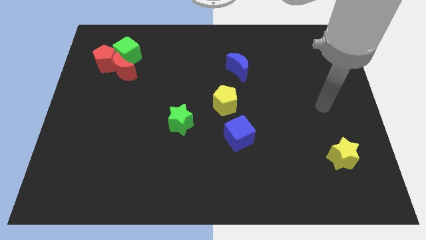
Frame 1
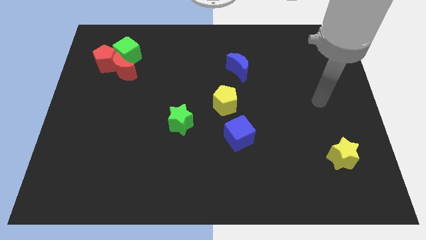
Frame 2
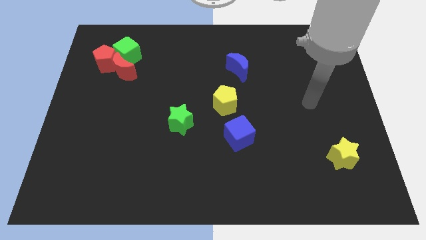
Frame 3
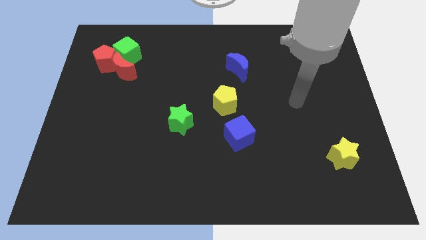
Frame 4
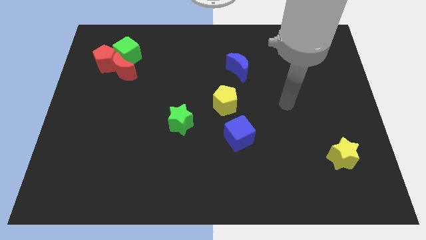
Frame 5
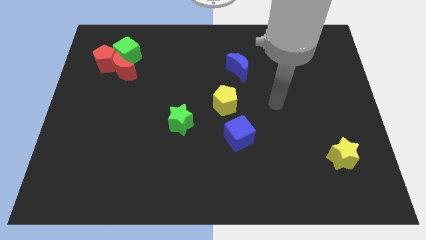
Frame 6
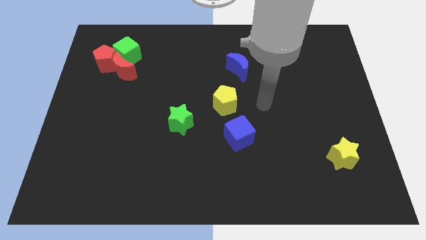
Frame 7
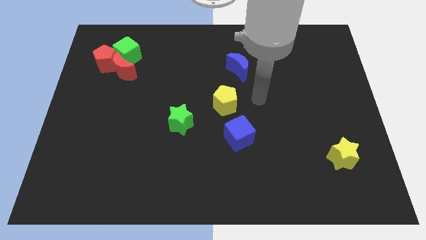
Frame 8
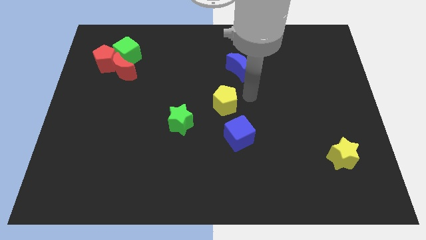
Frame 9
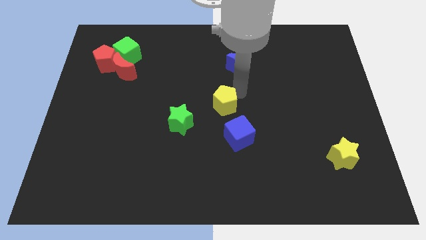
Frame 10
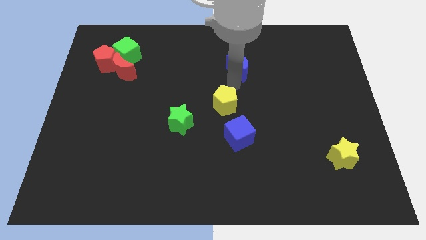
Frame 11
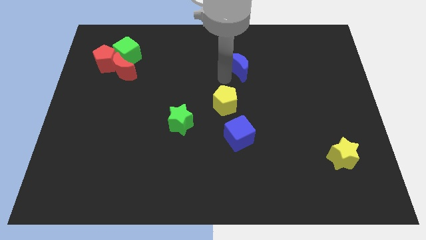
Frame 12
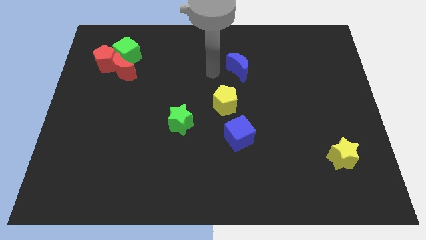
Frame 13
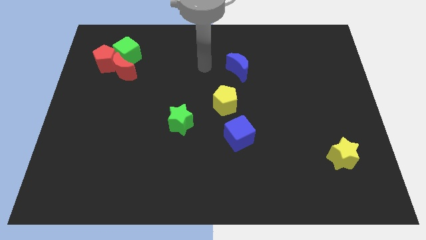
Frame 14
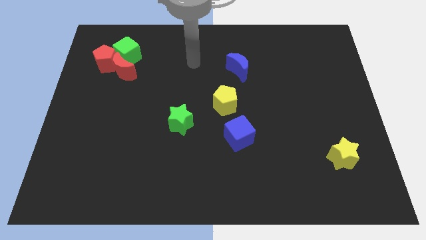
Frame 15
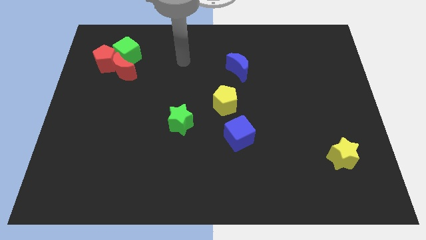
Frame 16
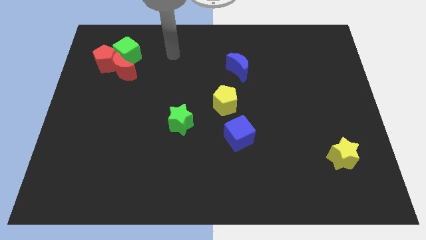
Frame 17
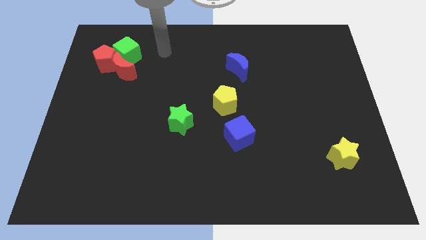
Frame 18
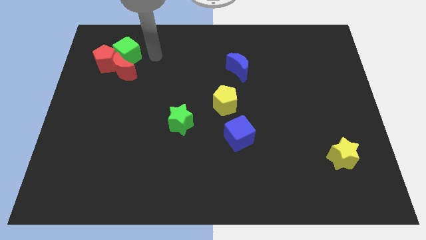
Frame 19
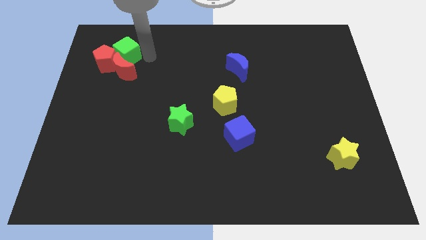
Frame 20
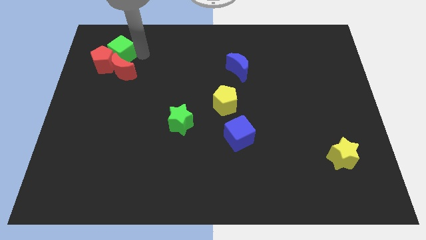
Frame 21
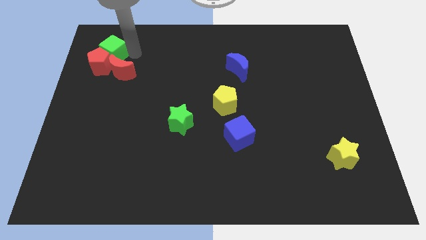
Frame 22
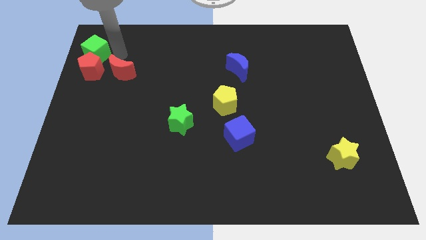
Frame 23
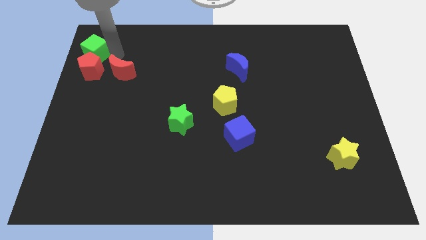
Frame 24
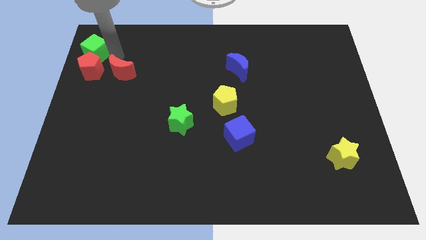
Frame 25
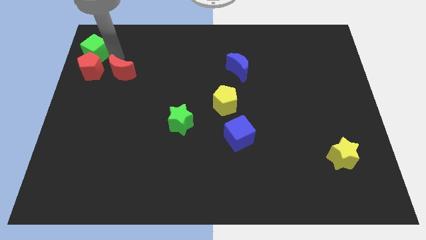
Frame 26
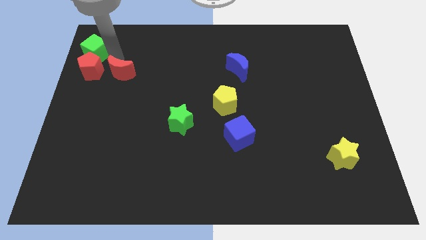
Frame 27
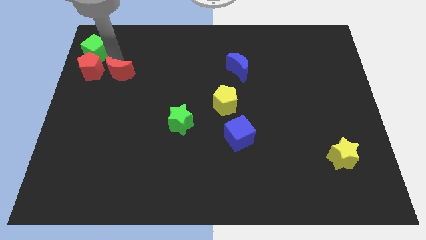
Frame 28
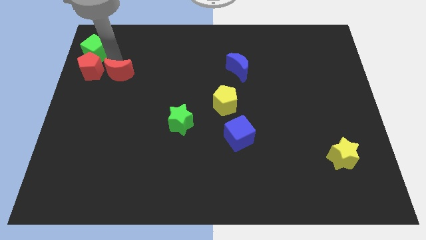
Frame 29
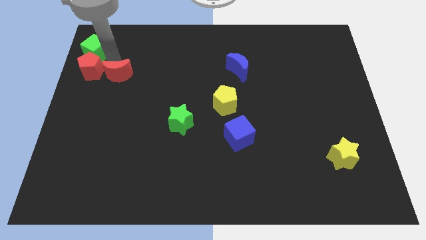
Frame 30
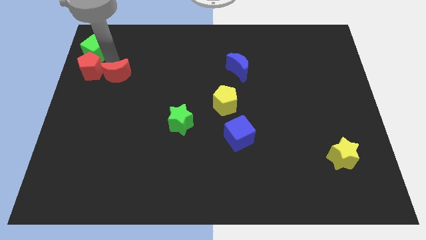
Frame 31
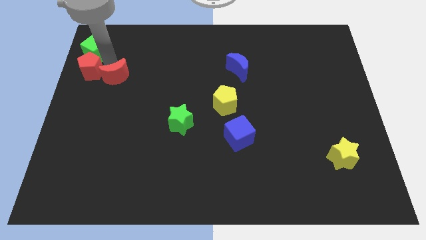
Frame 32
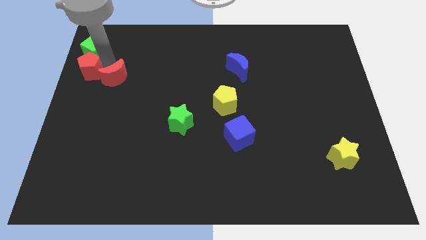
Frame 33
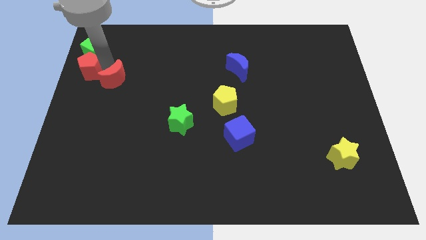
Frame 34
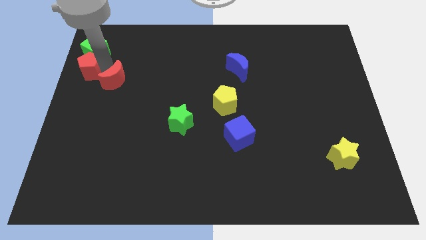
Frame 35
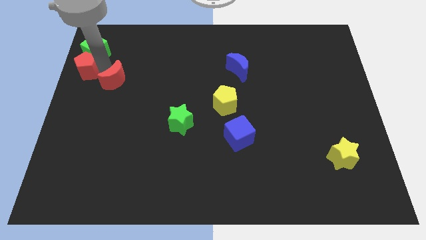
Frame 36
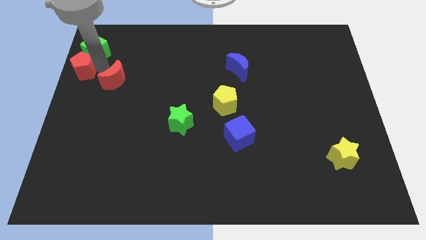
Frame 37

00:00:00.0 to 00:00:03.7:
pull the red moon apart from the red pentagon and green cube

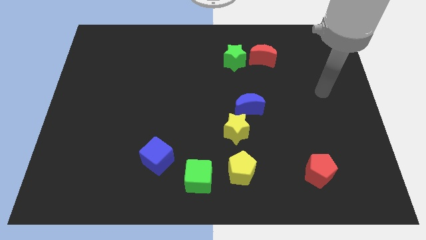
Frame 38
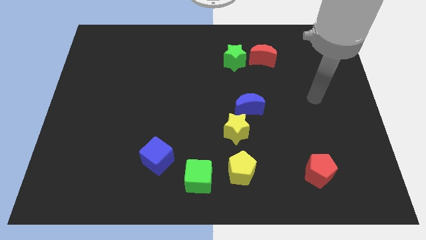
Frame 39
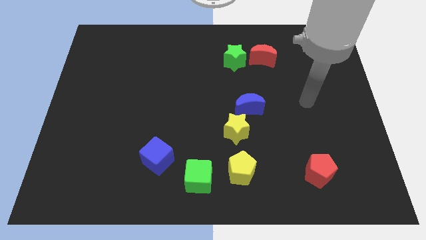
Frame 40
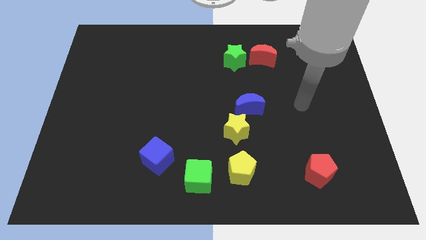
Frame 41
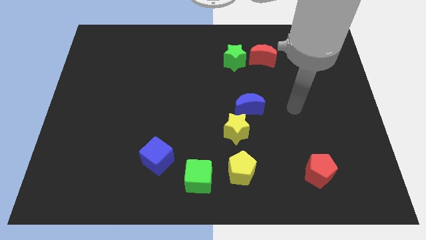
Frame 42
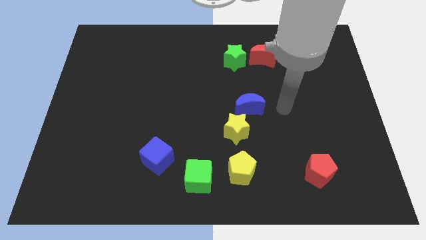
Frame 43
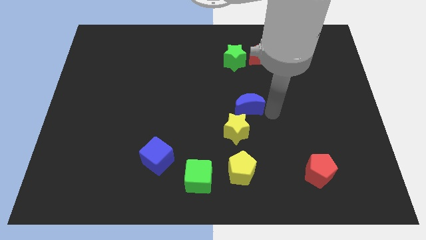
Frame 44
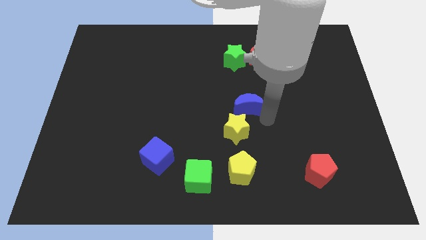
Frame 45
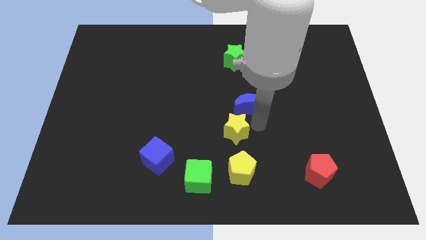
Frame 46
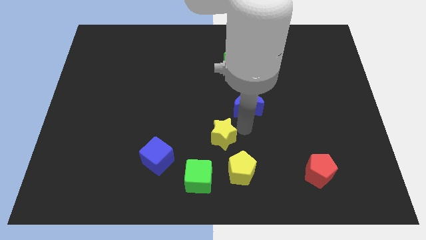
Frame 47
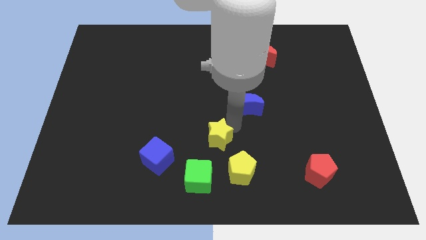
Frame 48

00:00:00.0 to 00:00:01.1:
move the blue moon away from the yellow star

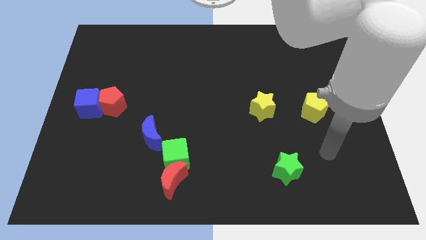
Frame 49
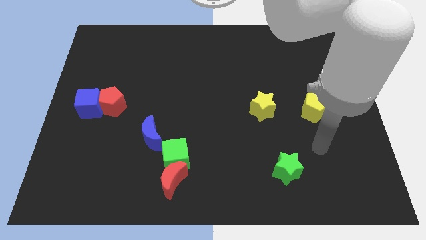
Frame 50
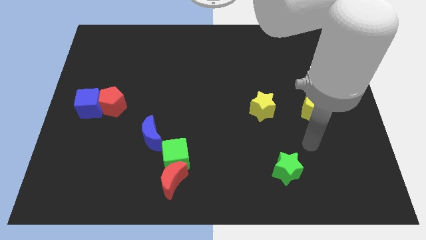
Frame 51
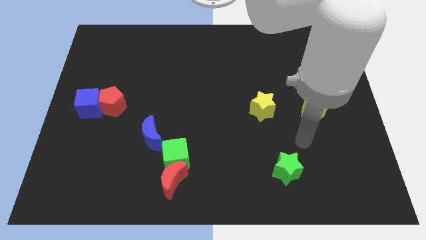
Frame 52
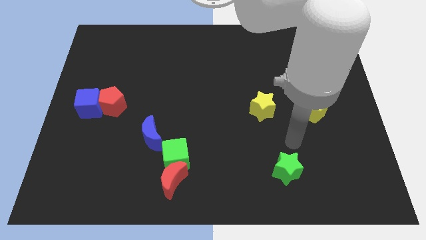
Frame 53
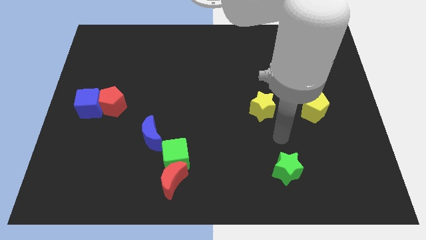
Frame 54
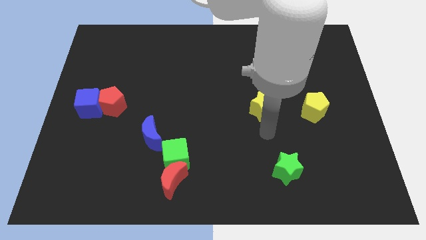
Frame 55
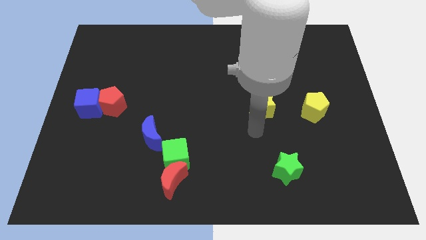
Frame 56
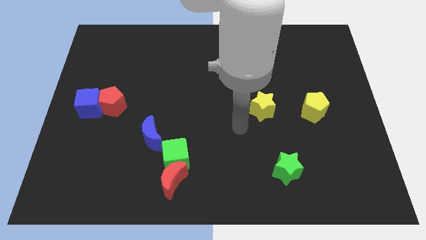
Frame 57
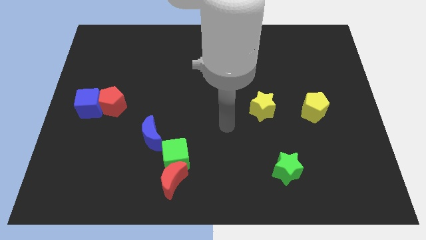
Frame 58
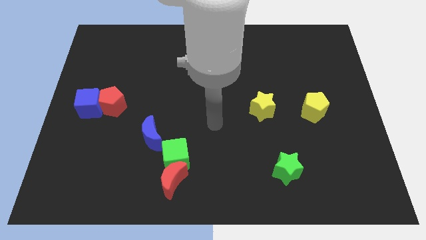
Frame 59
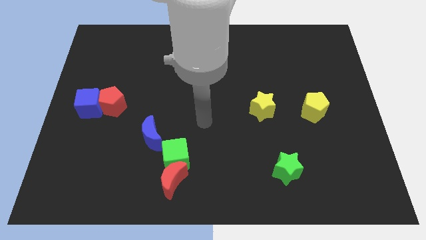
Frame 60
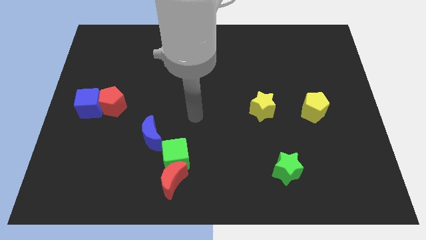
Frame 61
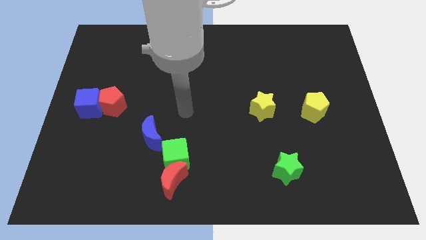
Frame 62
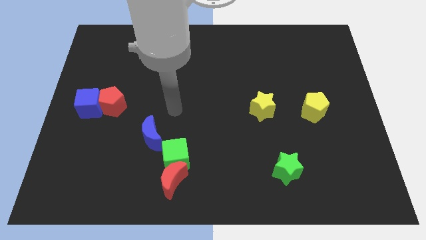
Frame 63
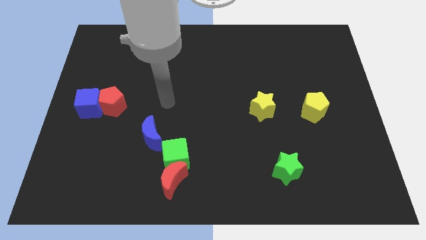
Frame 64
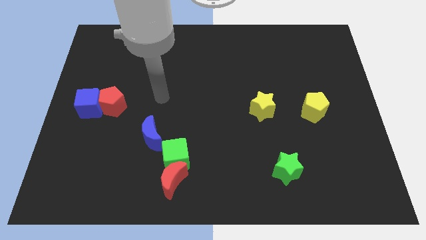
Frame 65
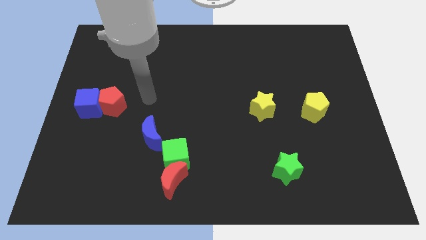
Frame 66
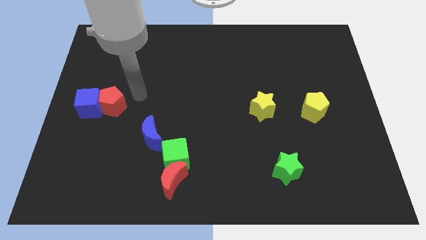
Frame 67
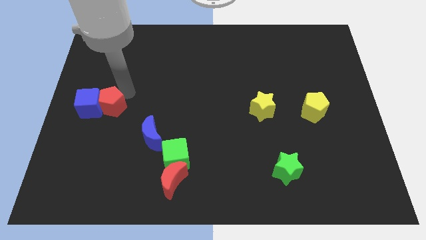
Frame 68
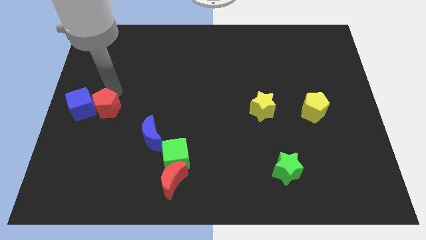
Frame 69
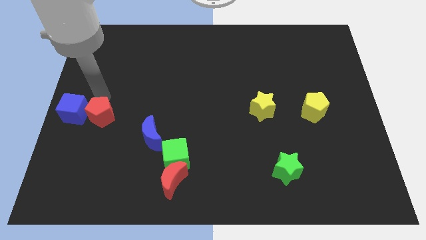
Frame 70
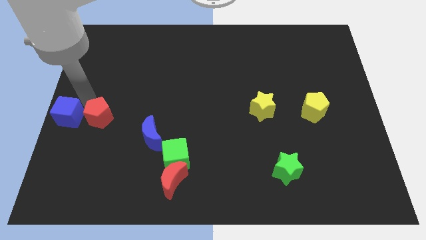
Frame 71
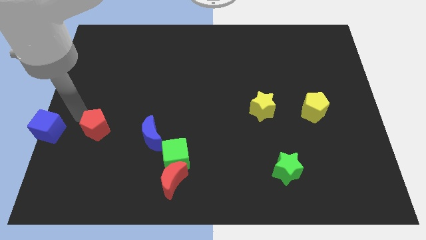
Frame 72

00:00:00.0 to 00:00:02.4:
separate the red pentagon from the blue cube

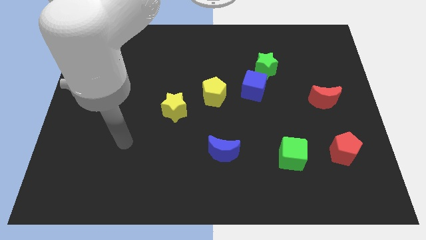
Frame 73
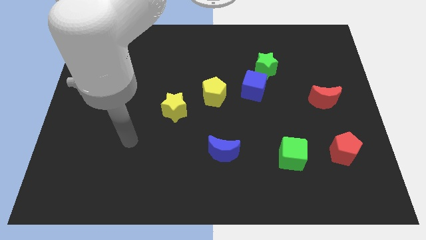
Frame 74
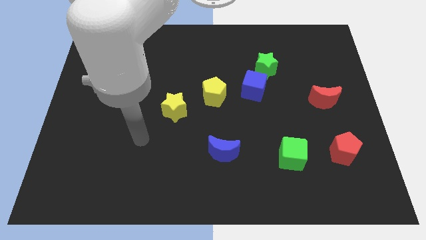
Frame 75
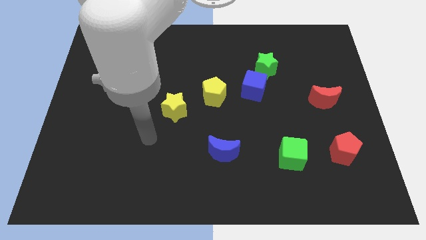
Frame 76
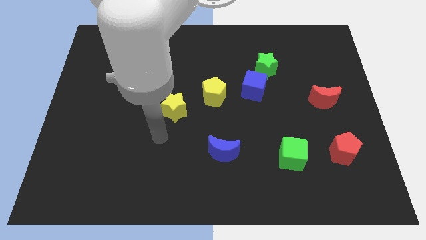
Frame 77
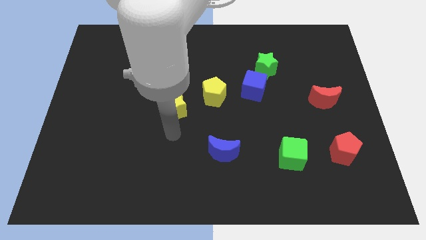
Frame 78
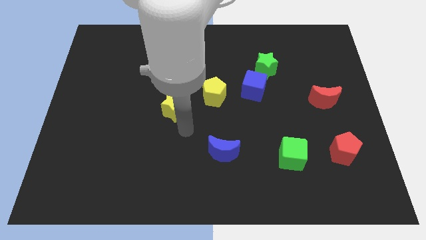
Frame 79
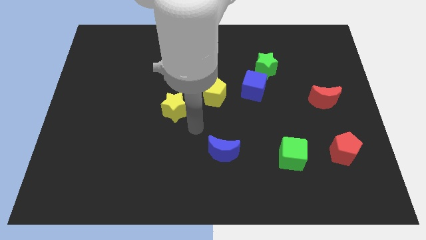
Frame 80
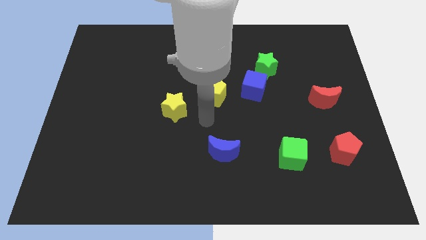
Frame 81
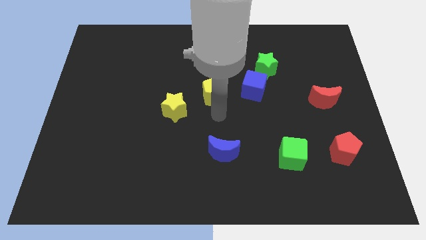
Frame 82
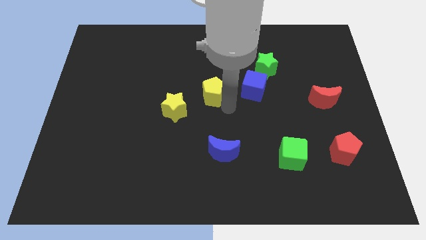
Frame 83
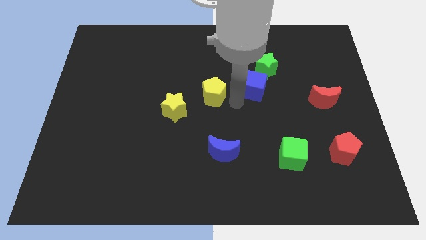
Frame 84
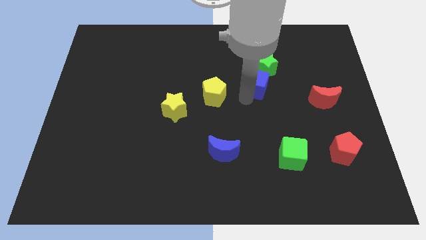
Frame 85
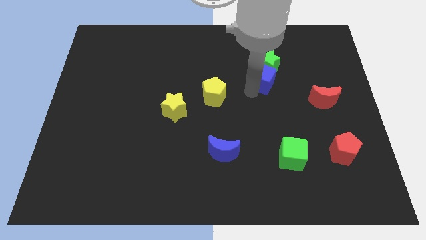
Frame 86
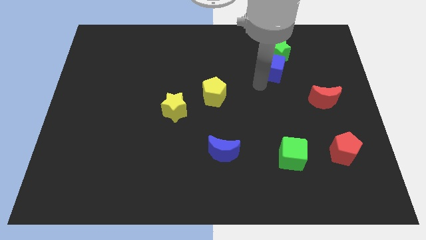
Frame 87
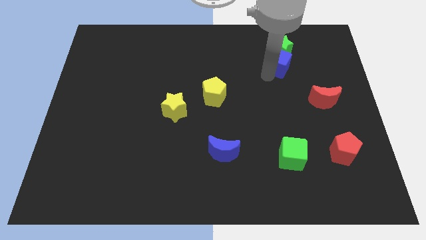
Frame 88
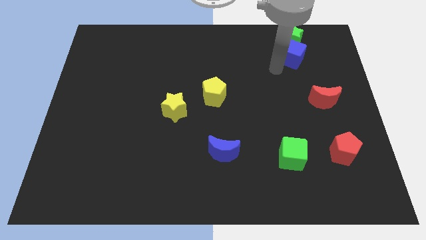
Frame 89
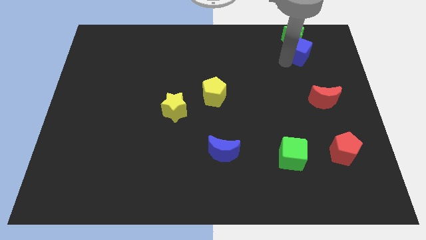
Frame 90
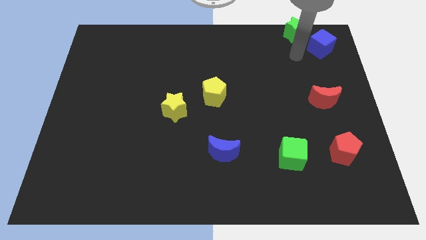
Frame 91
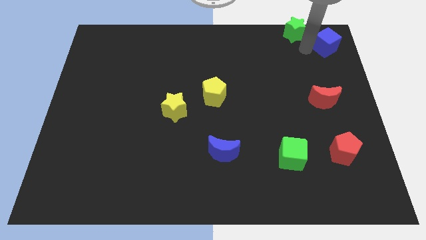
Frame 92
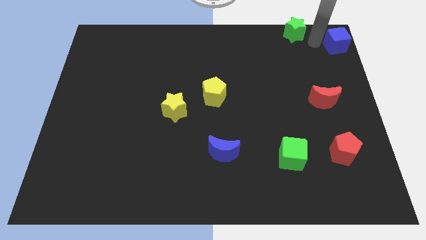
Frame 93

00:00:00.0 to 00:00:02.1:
separate the green star from the blue cube
